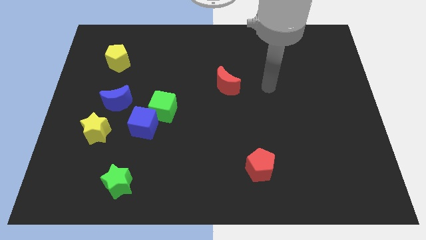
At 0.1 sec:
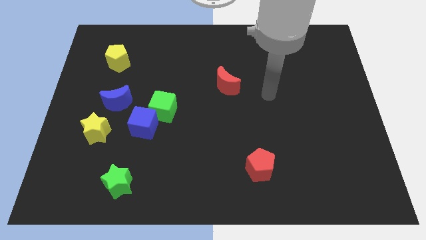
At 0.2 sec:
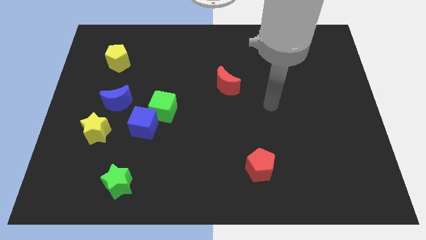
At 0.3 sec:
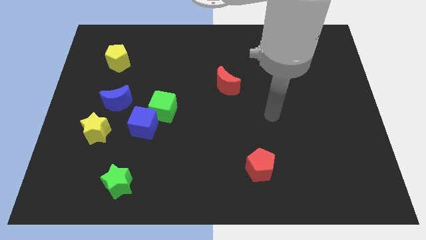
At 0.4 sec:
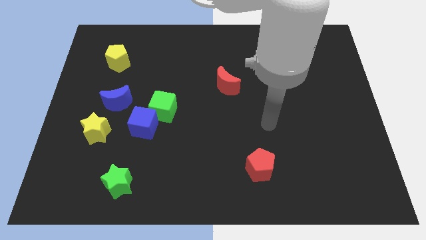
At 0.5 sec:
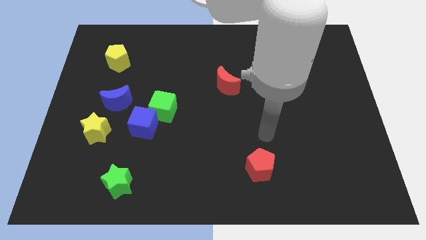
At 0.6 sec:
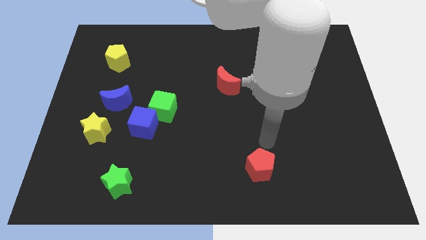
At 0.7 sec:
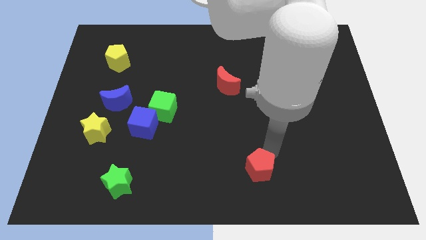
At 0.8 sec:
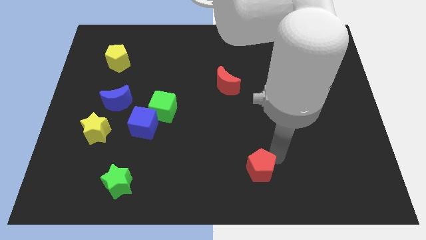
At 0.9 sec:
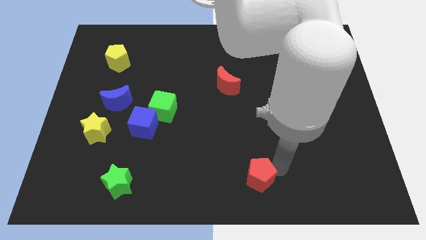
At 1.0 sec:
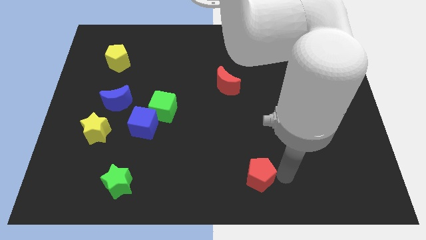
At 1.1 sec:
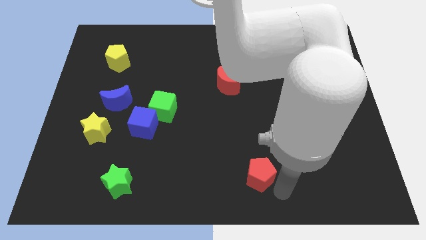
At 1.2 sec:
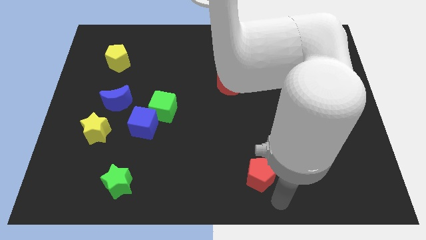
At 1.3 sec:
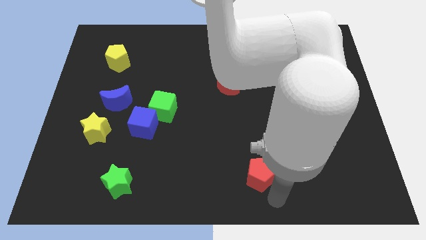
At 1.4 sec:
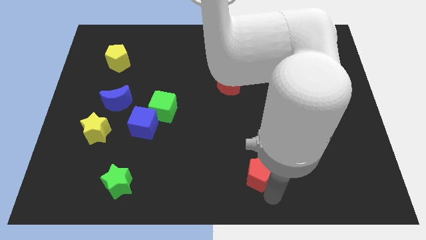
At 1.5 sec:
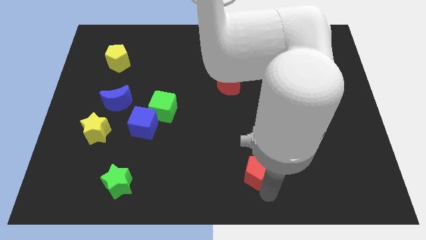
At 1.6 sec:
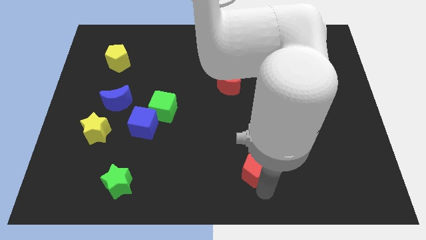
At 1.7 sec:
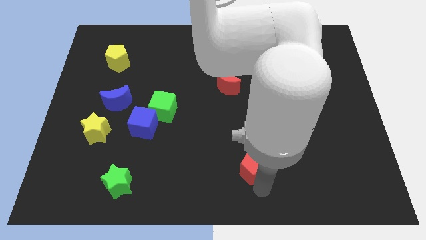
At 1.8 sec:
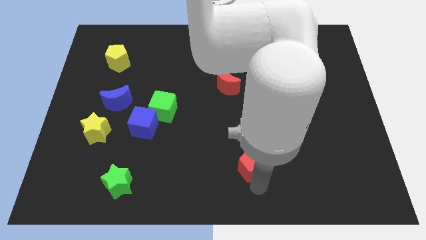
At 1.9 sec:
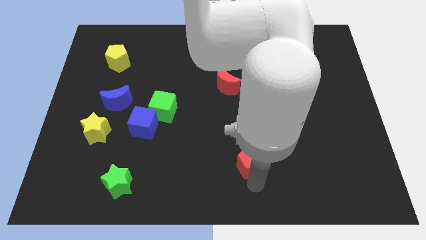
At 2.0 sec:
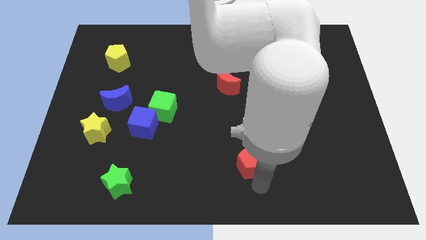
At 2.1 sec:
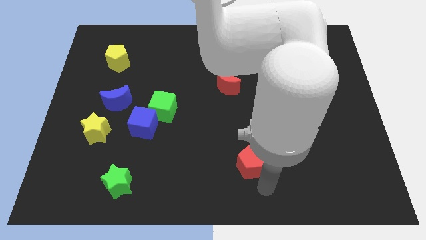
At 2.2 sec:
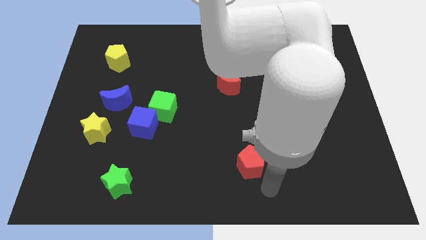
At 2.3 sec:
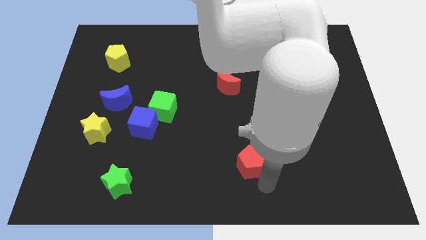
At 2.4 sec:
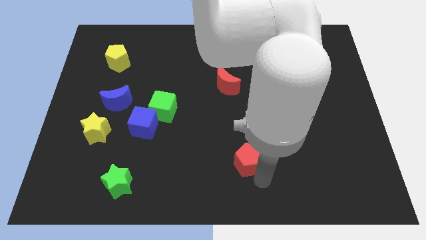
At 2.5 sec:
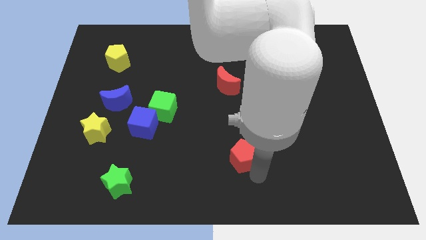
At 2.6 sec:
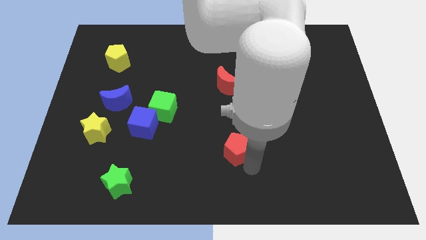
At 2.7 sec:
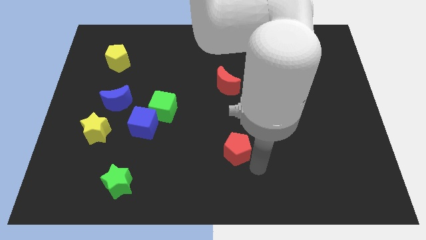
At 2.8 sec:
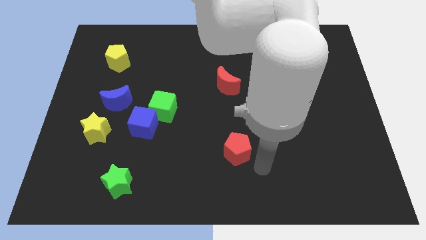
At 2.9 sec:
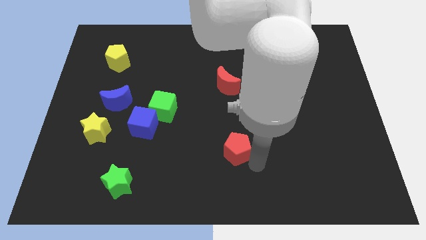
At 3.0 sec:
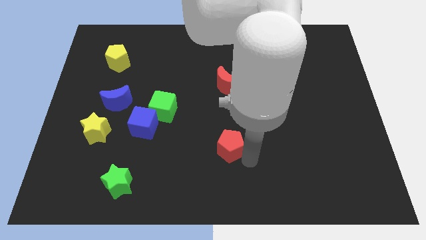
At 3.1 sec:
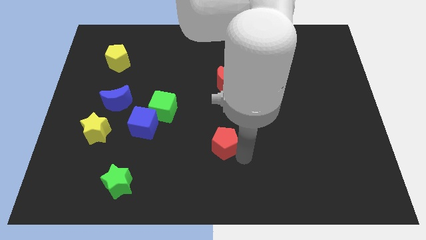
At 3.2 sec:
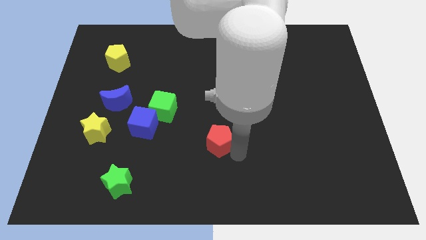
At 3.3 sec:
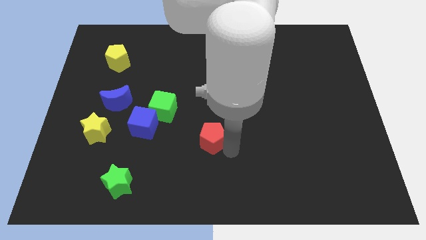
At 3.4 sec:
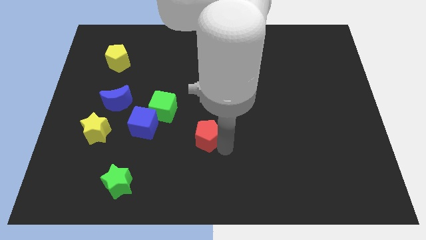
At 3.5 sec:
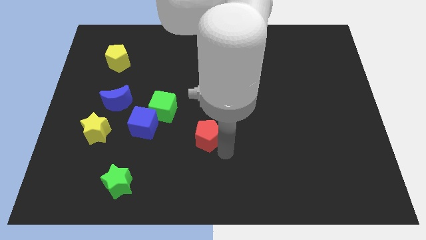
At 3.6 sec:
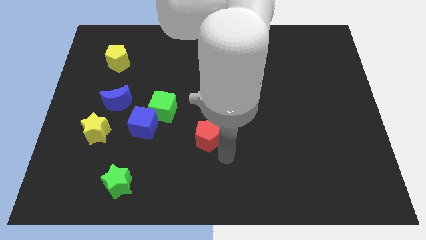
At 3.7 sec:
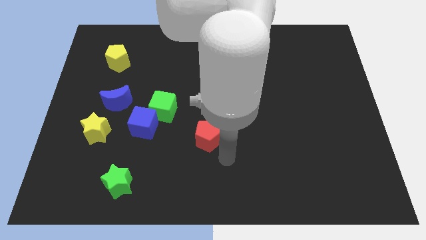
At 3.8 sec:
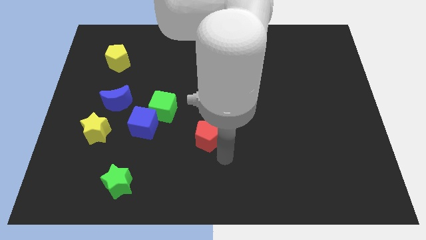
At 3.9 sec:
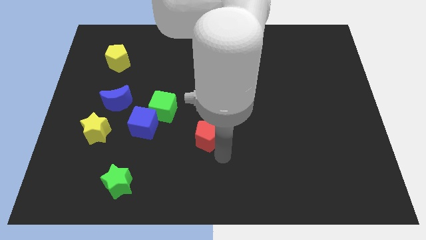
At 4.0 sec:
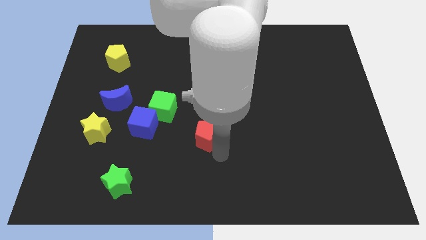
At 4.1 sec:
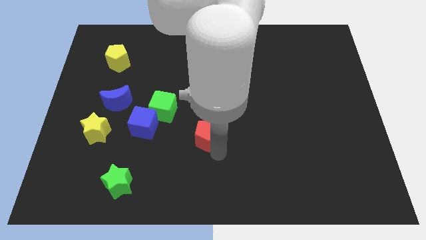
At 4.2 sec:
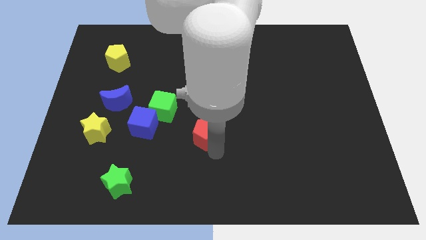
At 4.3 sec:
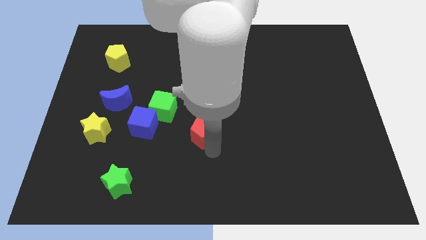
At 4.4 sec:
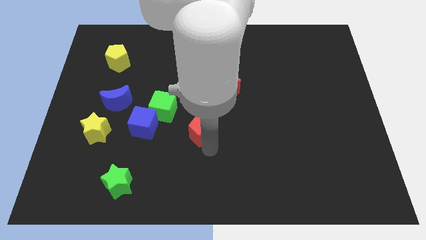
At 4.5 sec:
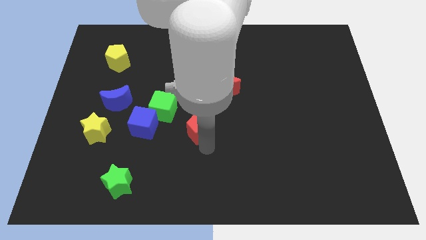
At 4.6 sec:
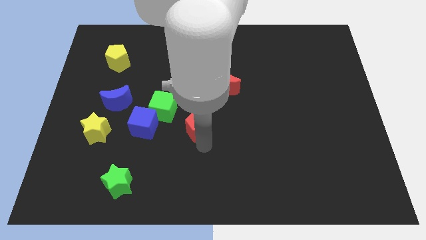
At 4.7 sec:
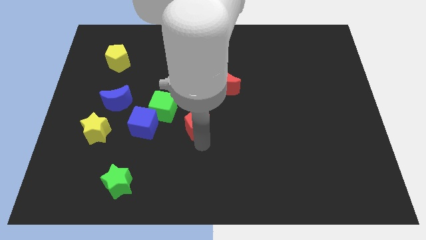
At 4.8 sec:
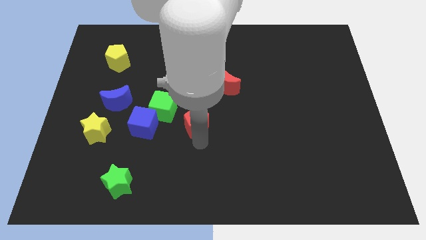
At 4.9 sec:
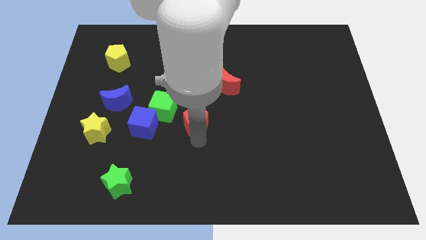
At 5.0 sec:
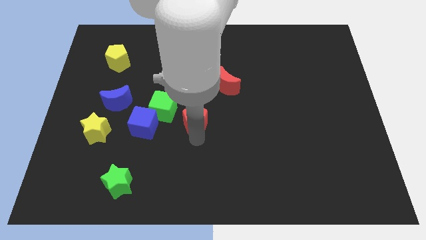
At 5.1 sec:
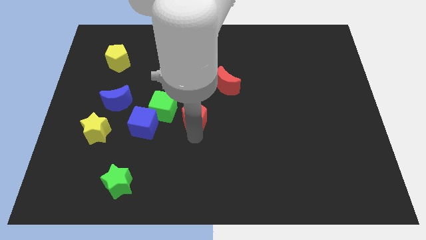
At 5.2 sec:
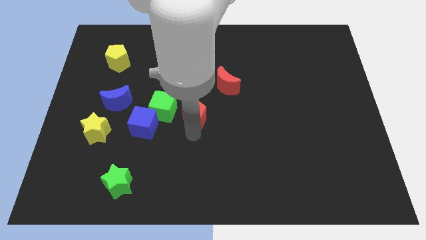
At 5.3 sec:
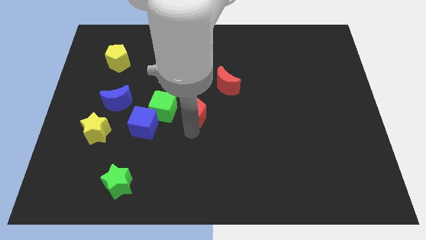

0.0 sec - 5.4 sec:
push the red pentagon up and left diagonally

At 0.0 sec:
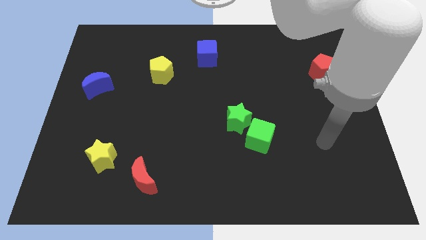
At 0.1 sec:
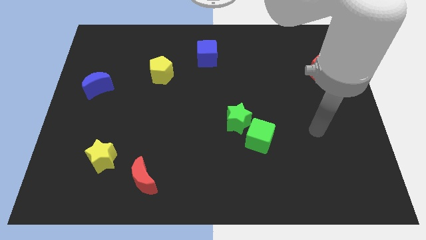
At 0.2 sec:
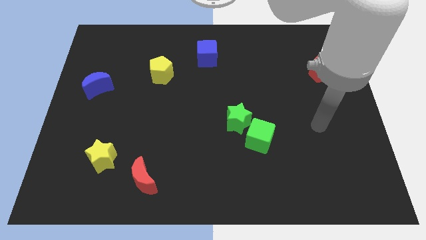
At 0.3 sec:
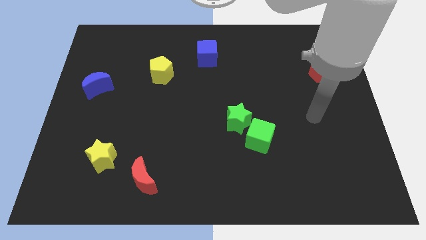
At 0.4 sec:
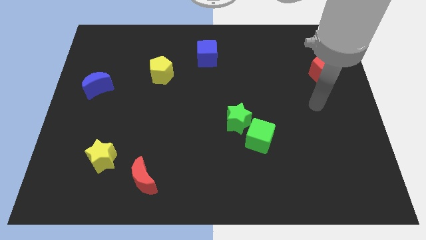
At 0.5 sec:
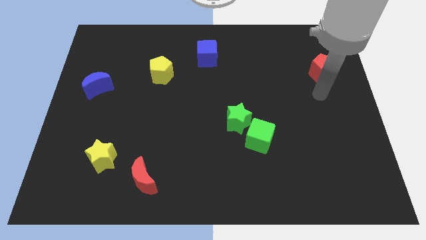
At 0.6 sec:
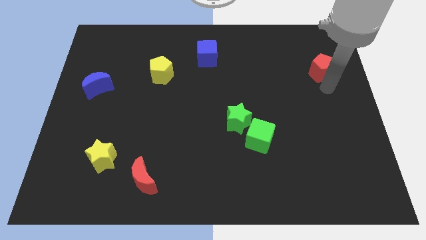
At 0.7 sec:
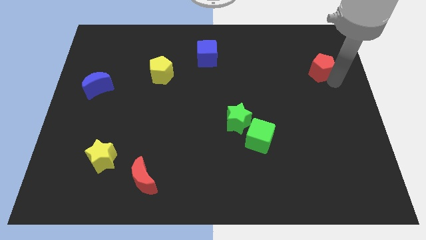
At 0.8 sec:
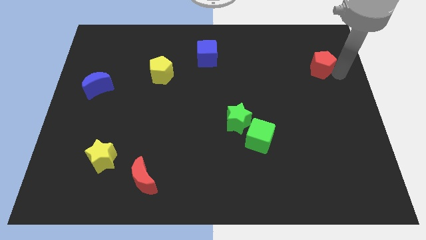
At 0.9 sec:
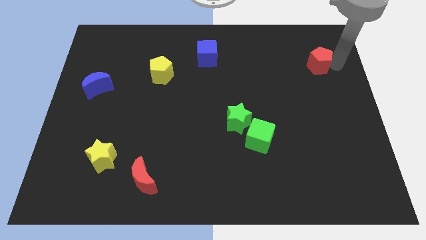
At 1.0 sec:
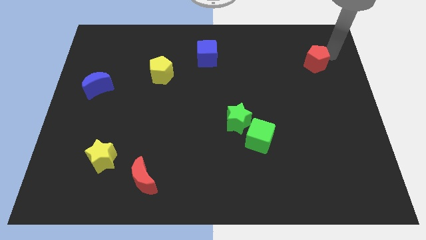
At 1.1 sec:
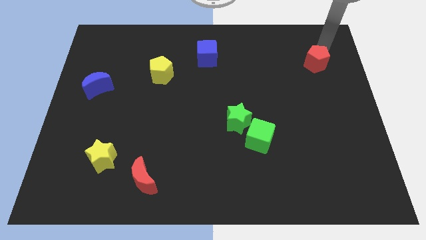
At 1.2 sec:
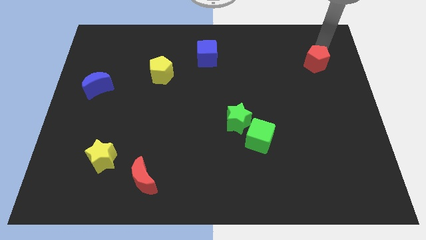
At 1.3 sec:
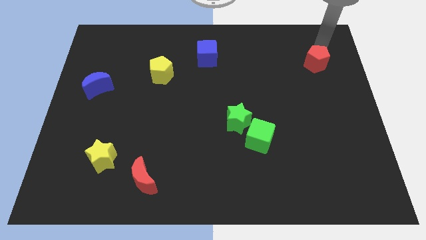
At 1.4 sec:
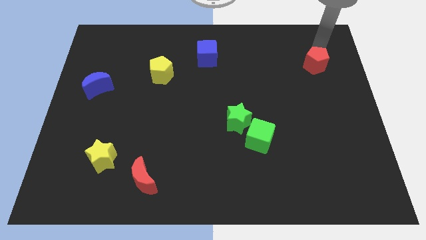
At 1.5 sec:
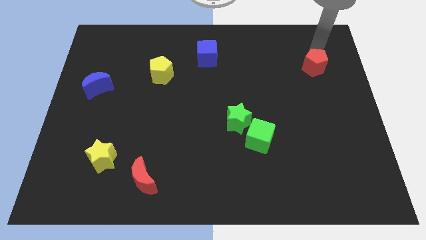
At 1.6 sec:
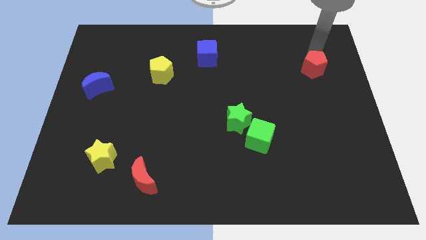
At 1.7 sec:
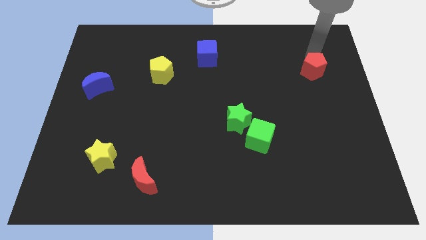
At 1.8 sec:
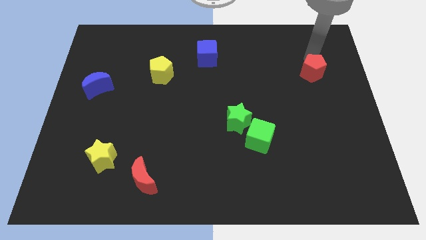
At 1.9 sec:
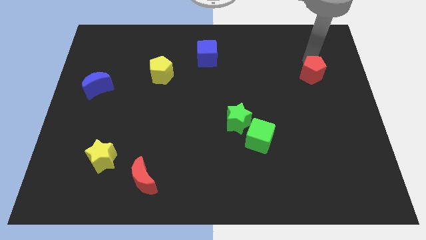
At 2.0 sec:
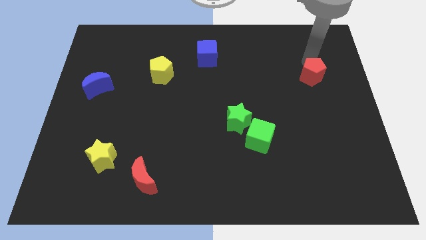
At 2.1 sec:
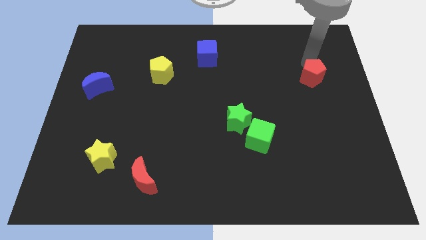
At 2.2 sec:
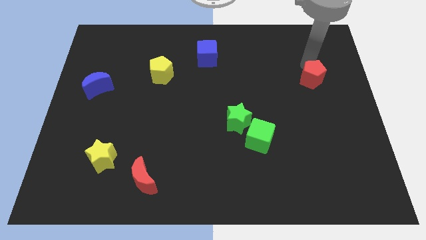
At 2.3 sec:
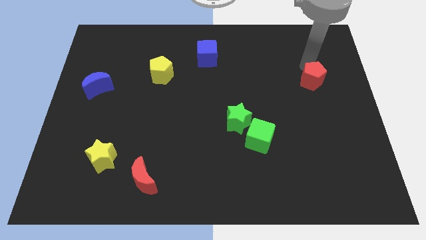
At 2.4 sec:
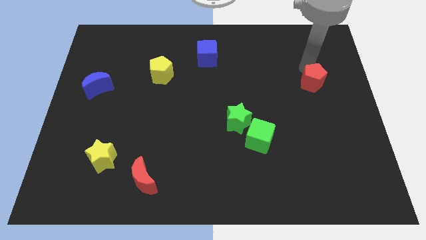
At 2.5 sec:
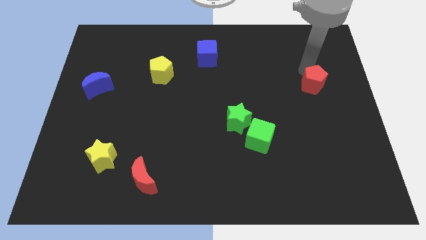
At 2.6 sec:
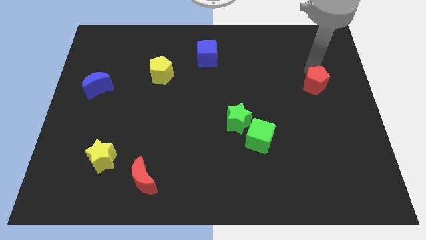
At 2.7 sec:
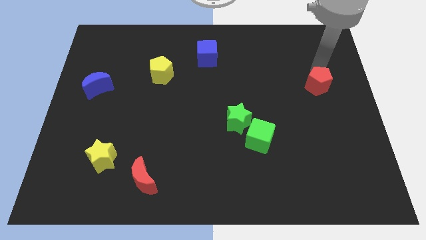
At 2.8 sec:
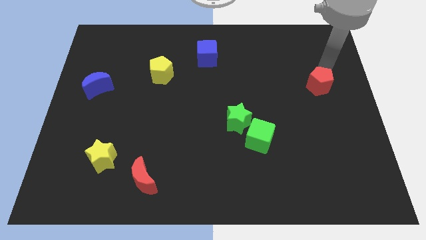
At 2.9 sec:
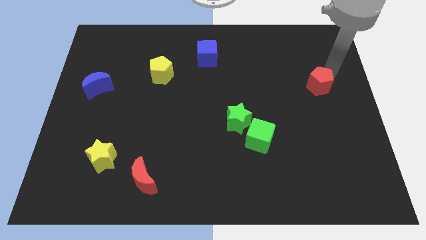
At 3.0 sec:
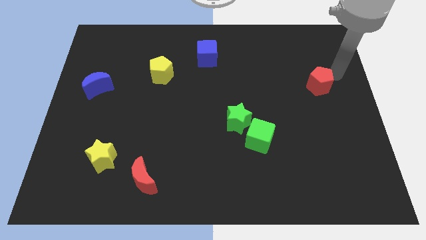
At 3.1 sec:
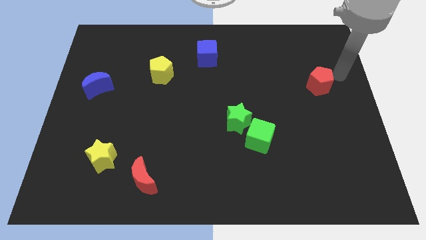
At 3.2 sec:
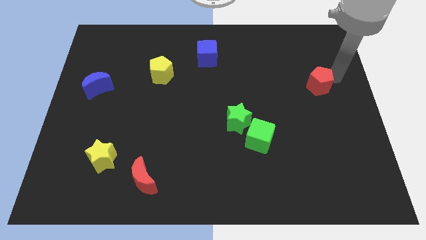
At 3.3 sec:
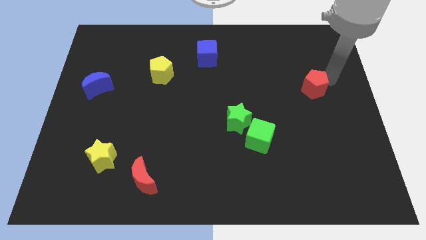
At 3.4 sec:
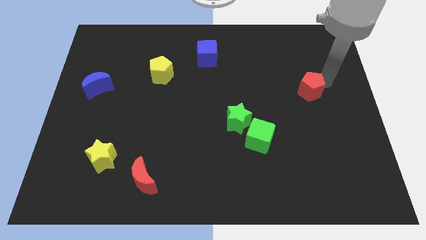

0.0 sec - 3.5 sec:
slide the red pentagon downwards and left diagonally a bit
